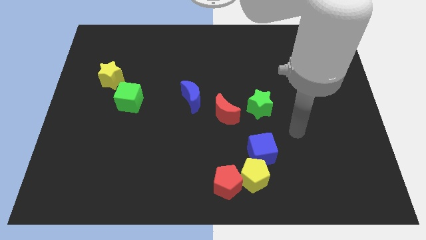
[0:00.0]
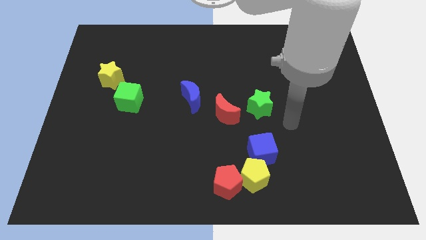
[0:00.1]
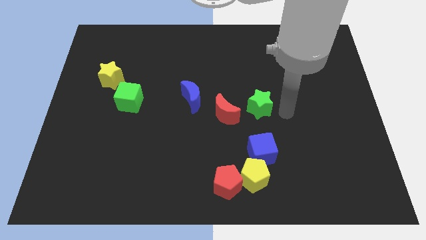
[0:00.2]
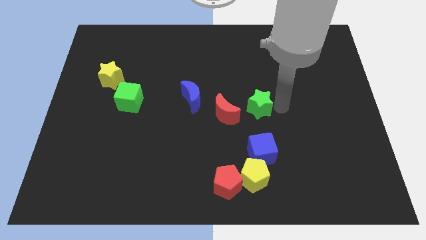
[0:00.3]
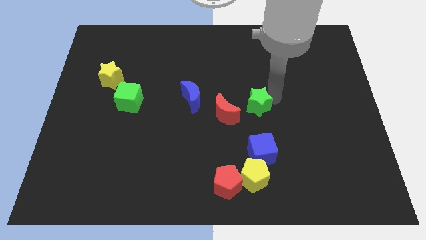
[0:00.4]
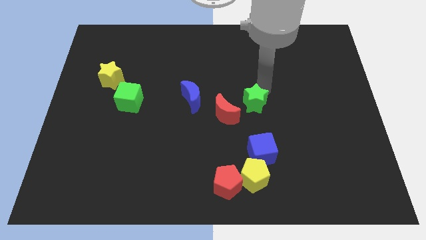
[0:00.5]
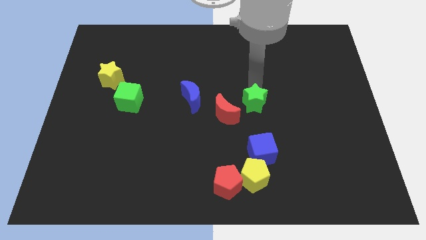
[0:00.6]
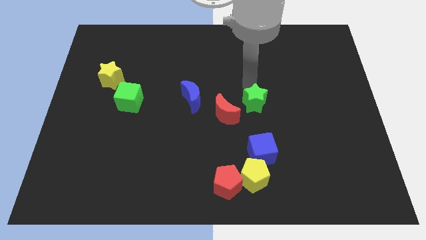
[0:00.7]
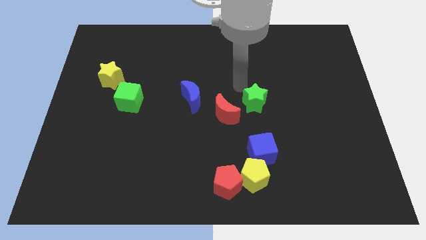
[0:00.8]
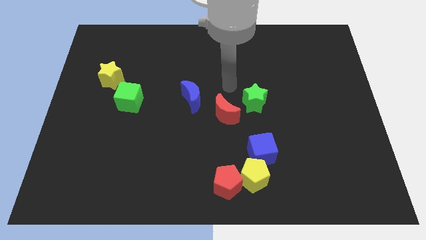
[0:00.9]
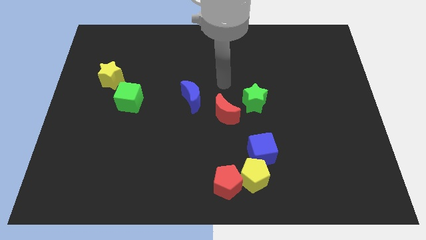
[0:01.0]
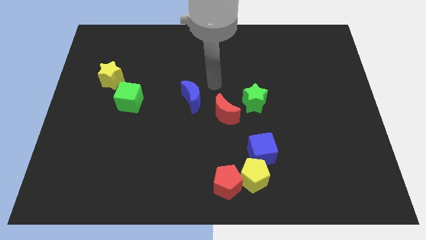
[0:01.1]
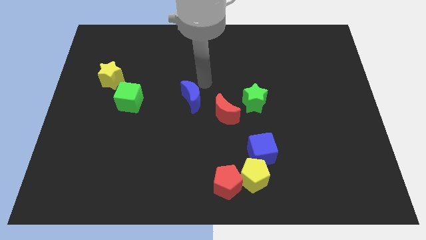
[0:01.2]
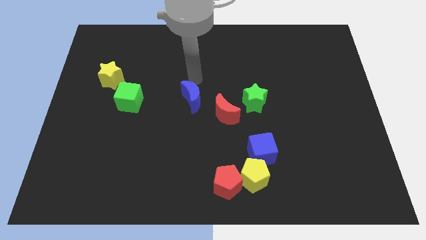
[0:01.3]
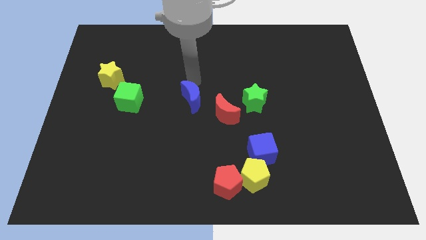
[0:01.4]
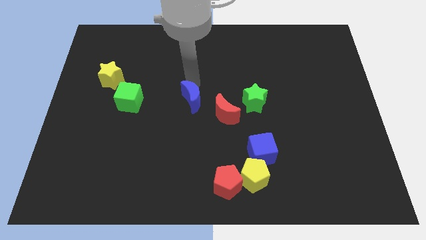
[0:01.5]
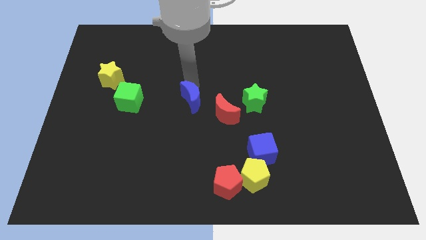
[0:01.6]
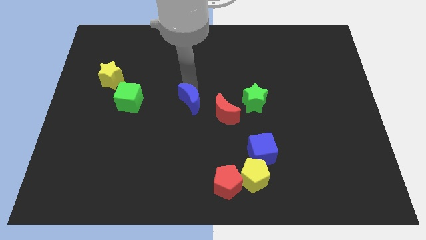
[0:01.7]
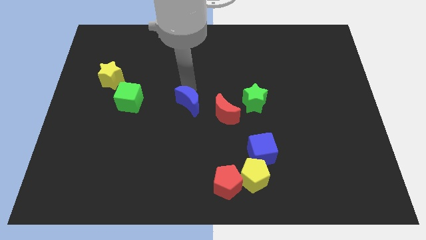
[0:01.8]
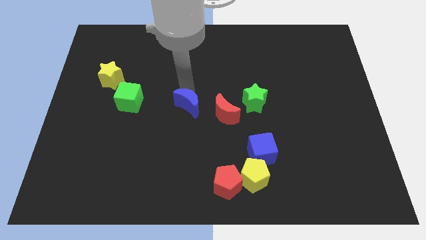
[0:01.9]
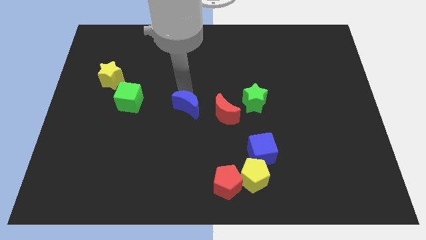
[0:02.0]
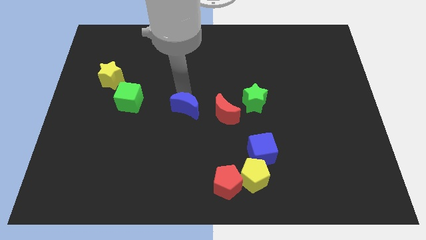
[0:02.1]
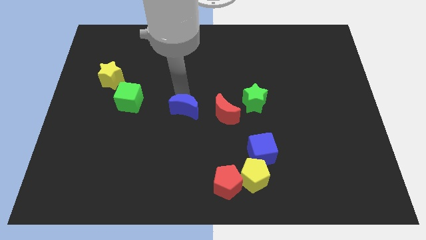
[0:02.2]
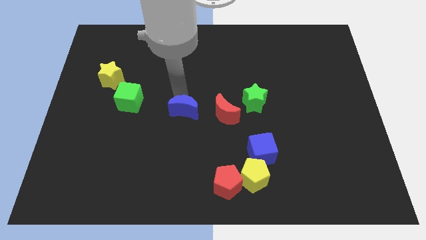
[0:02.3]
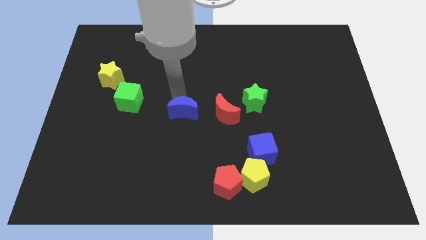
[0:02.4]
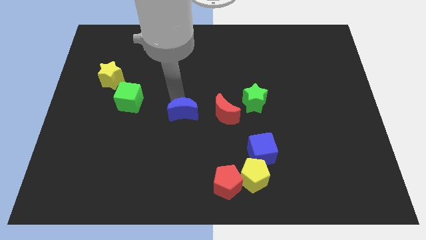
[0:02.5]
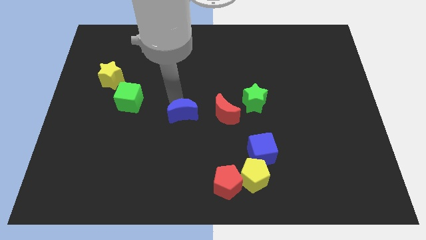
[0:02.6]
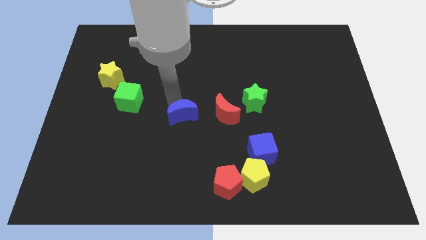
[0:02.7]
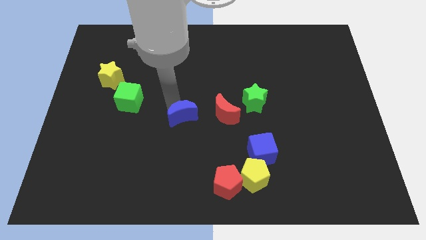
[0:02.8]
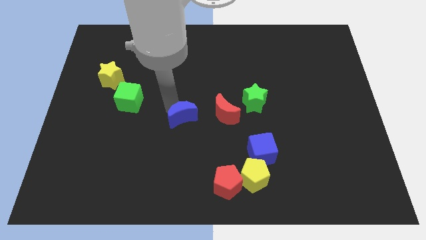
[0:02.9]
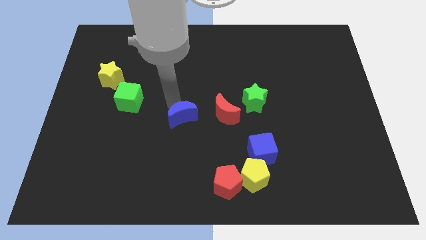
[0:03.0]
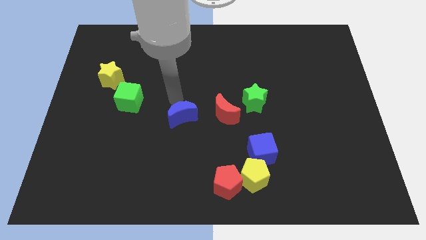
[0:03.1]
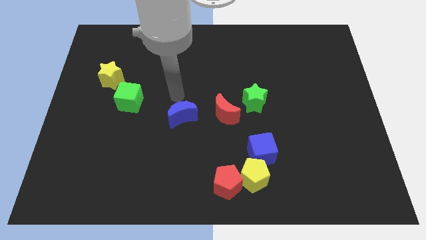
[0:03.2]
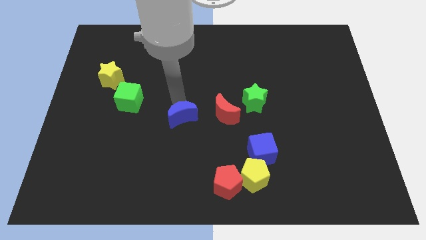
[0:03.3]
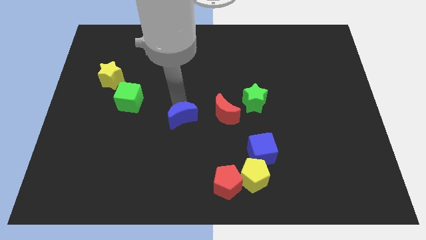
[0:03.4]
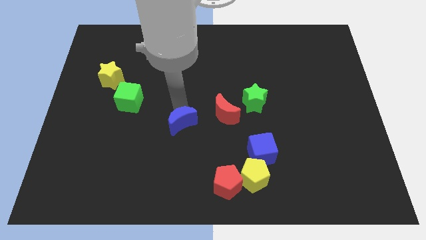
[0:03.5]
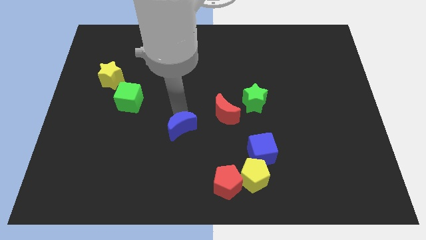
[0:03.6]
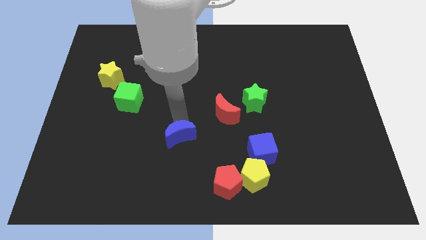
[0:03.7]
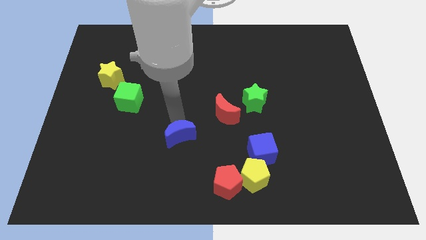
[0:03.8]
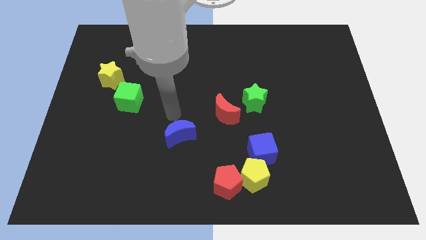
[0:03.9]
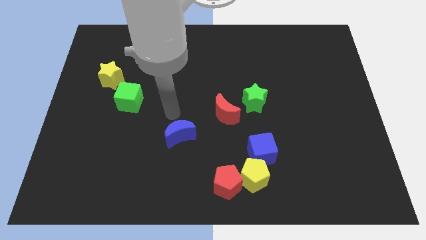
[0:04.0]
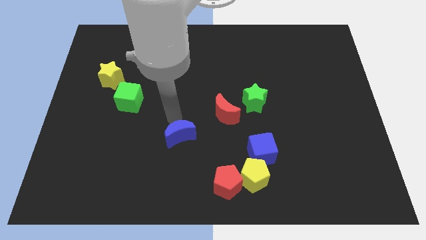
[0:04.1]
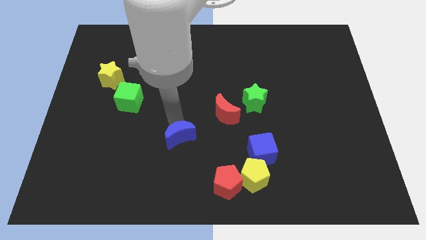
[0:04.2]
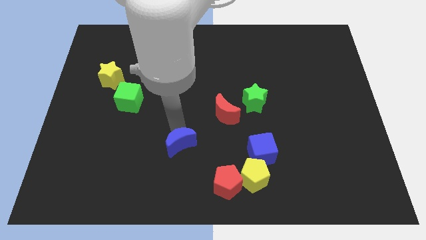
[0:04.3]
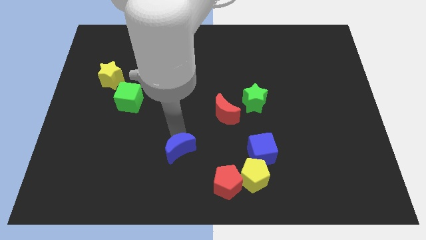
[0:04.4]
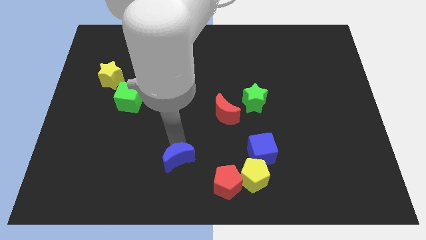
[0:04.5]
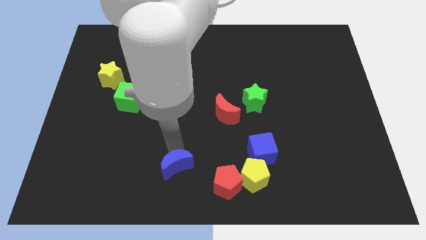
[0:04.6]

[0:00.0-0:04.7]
push the blue moon to the bottom

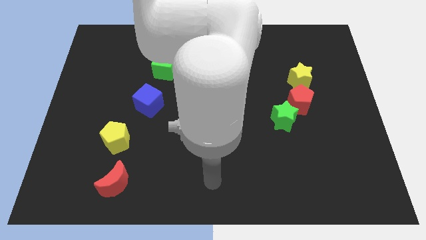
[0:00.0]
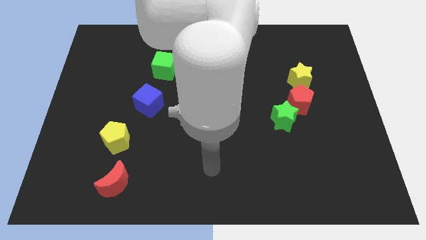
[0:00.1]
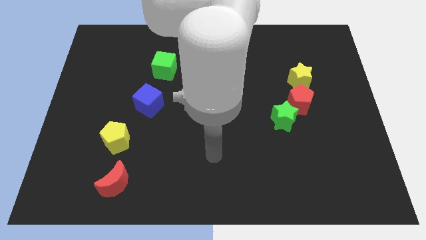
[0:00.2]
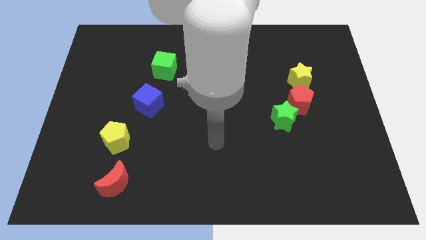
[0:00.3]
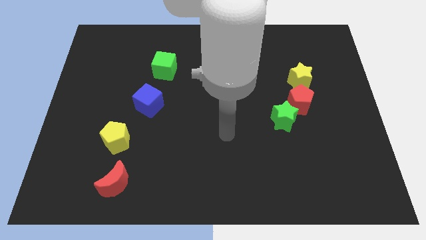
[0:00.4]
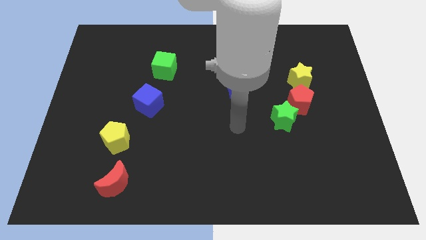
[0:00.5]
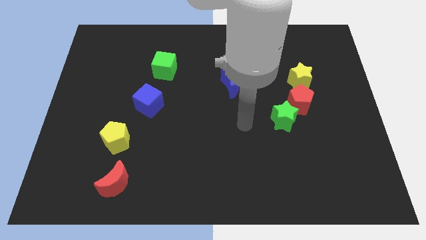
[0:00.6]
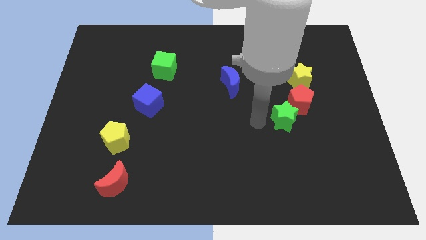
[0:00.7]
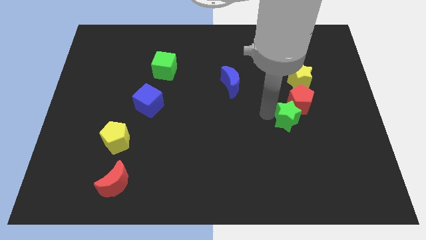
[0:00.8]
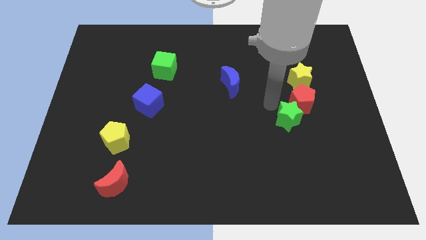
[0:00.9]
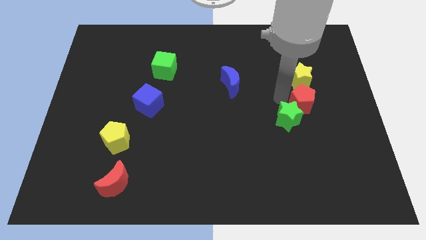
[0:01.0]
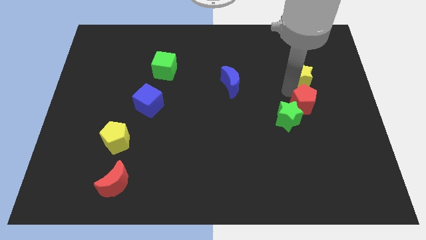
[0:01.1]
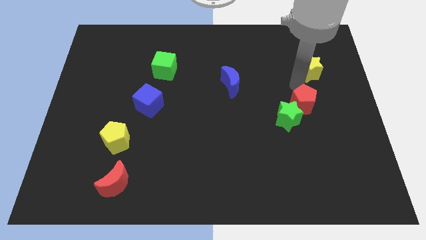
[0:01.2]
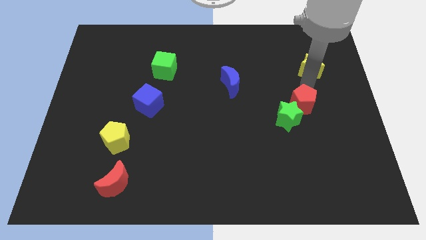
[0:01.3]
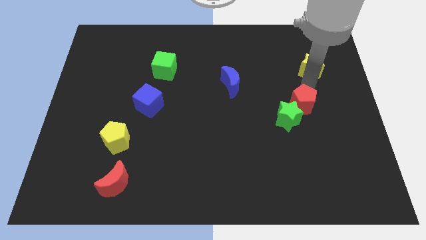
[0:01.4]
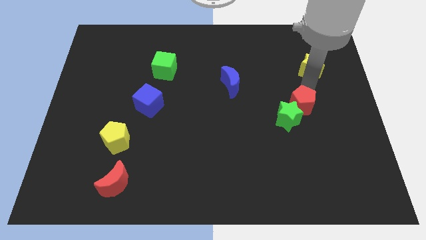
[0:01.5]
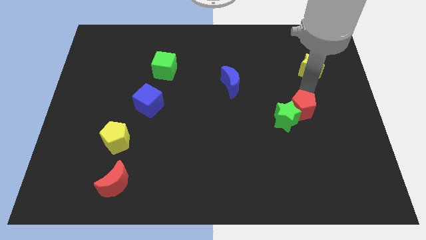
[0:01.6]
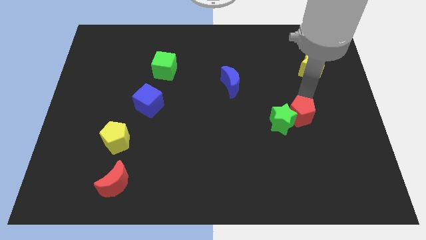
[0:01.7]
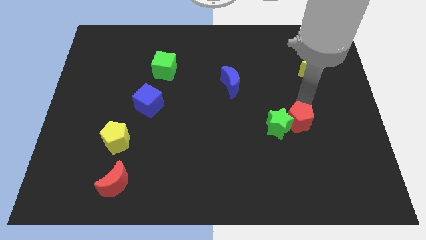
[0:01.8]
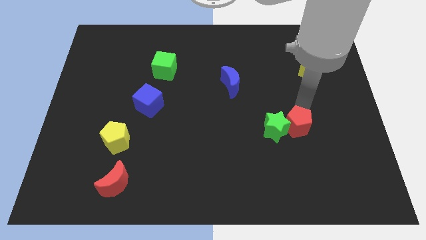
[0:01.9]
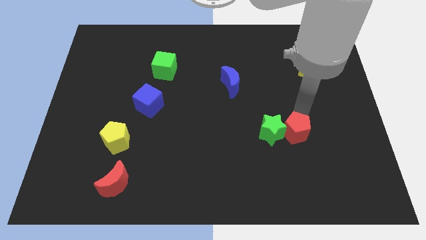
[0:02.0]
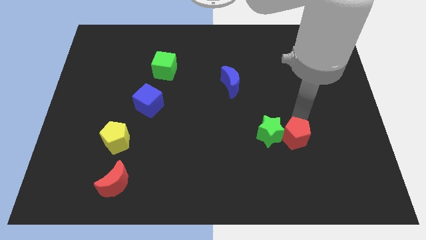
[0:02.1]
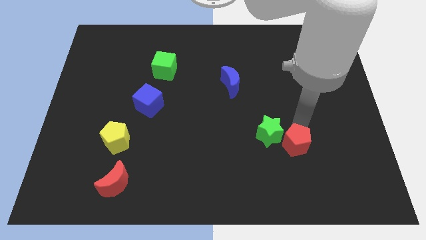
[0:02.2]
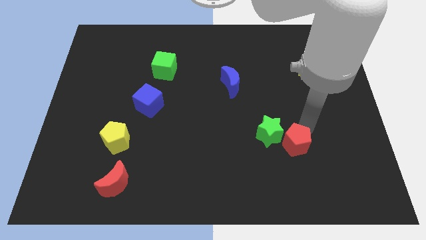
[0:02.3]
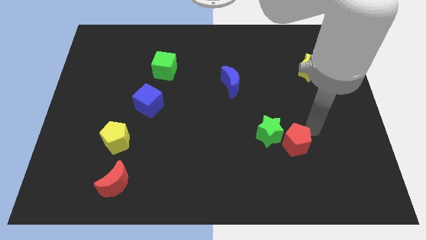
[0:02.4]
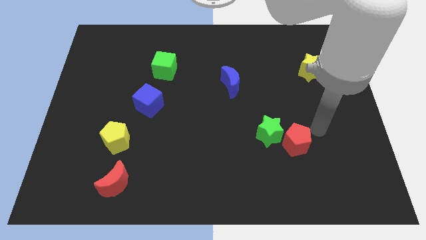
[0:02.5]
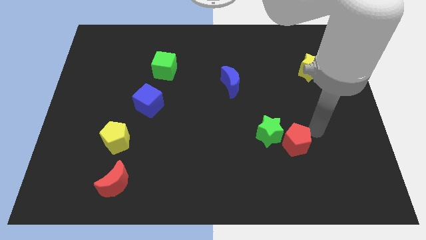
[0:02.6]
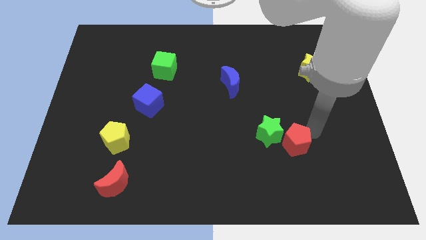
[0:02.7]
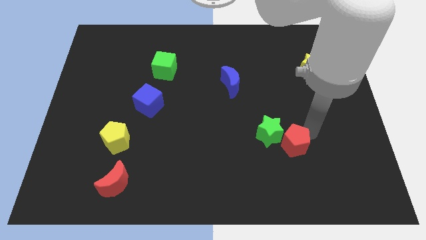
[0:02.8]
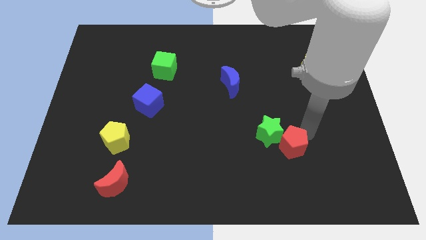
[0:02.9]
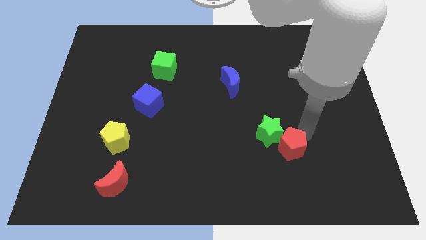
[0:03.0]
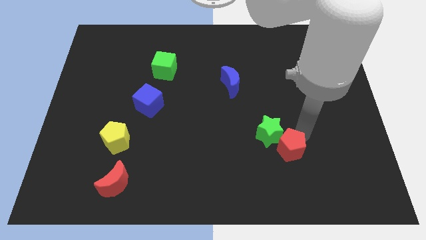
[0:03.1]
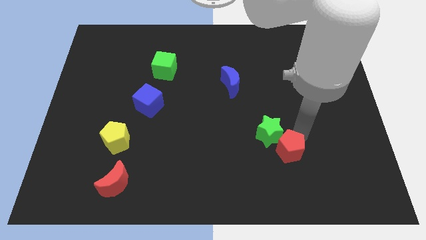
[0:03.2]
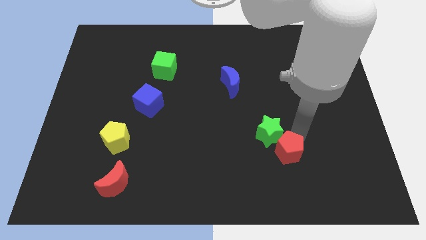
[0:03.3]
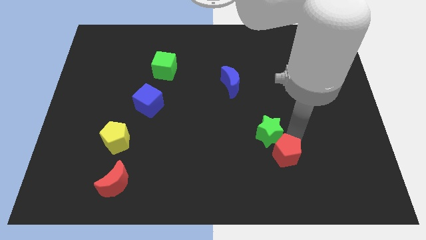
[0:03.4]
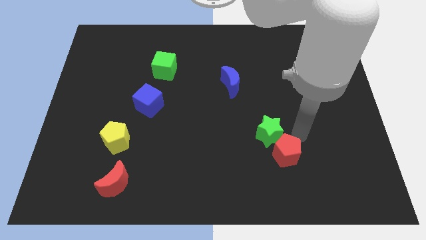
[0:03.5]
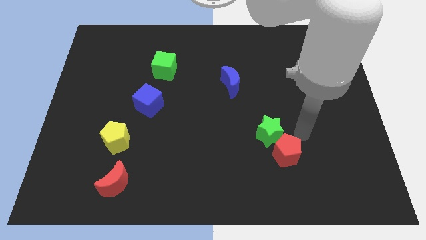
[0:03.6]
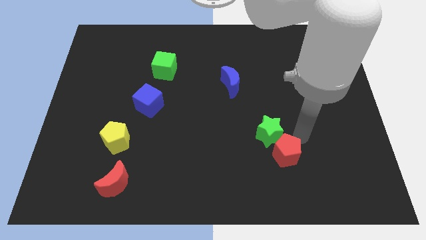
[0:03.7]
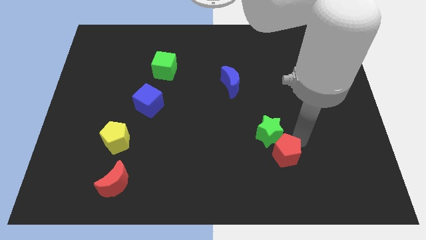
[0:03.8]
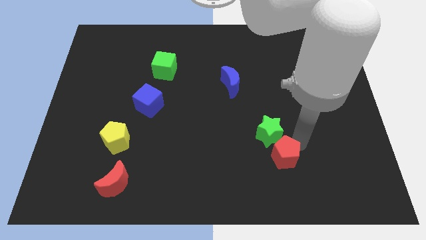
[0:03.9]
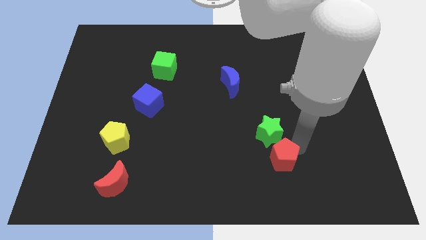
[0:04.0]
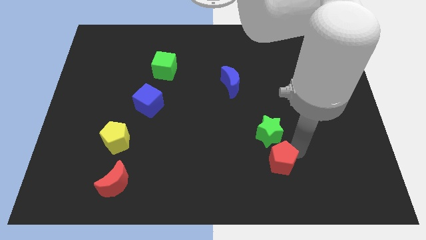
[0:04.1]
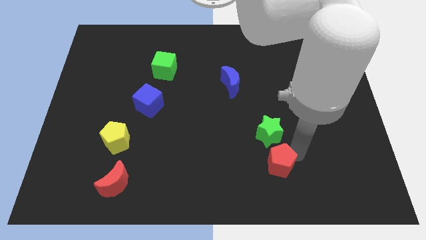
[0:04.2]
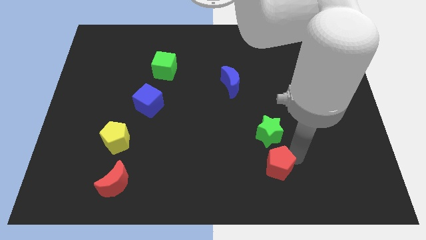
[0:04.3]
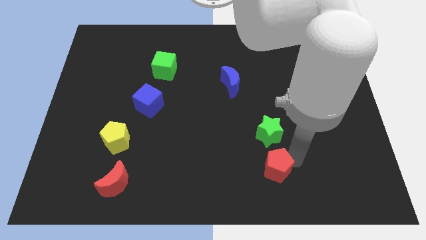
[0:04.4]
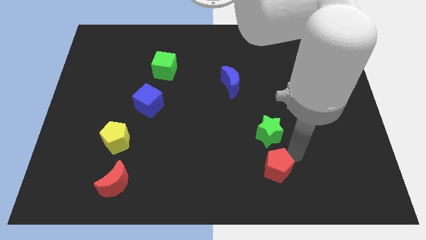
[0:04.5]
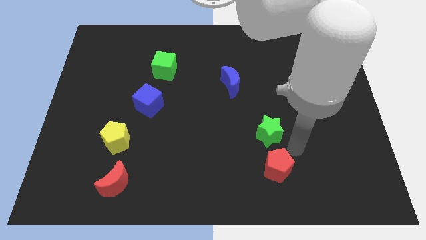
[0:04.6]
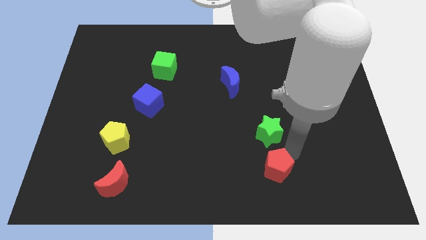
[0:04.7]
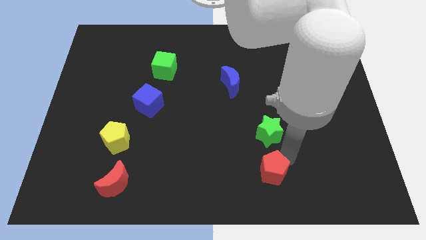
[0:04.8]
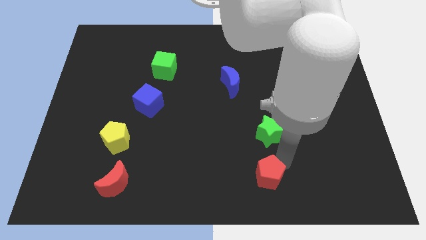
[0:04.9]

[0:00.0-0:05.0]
slide the red pentagon to the bottom
